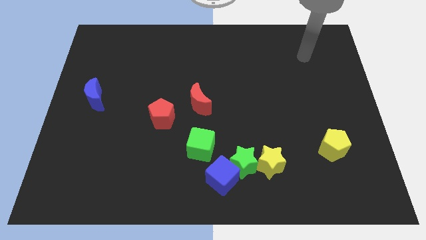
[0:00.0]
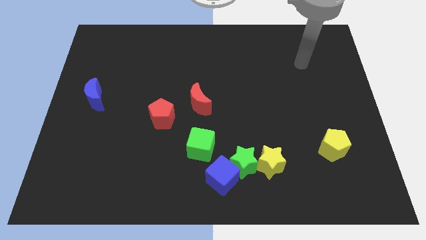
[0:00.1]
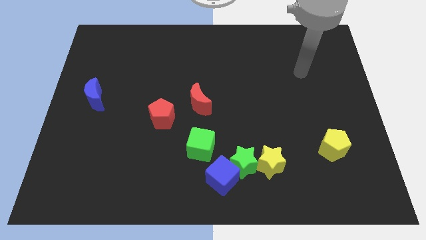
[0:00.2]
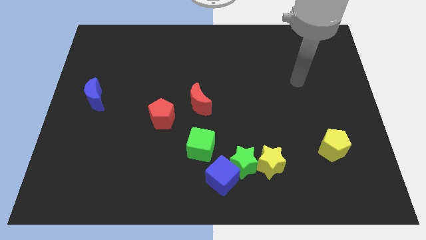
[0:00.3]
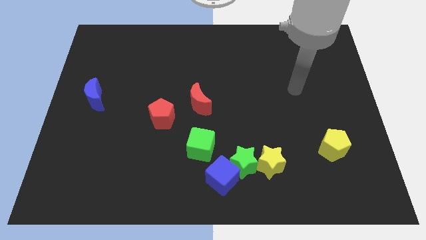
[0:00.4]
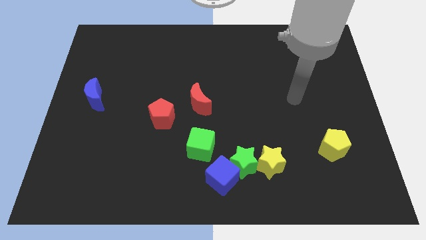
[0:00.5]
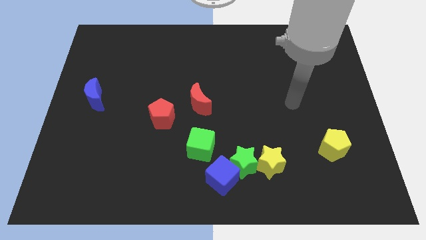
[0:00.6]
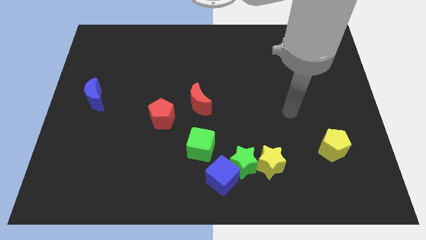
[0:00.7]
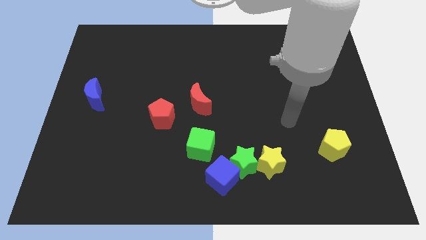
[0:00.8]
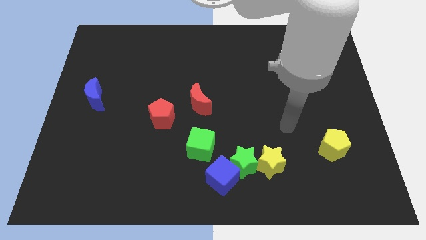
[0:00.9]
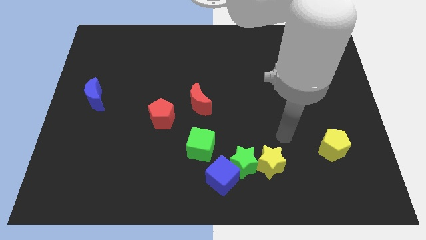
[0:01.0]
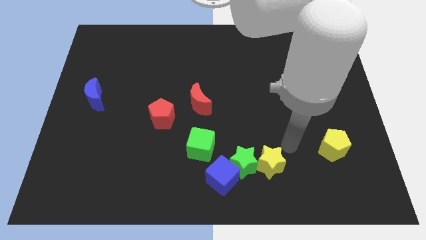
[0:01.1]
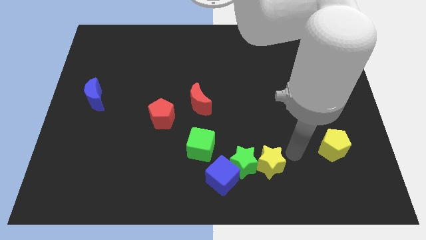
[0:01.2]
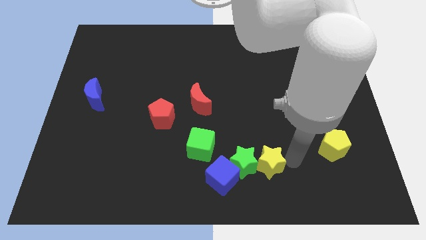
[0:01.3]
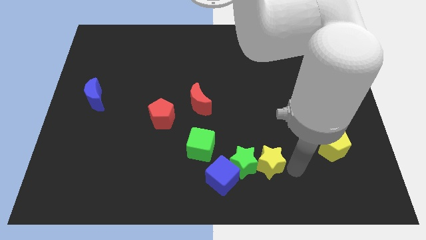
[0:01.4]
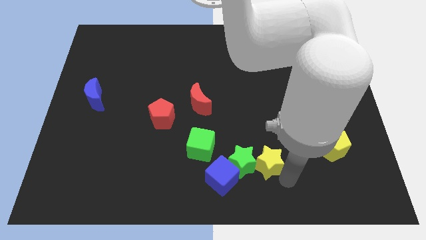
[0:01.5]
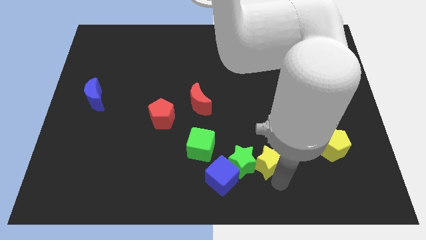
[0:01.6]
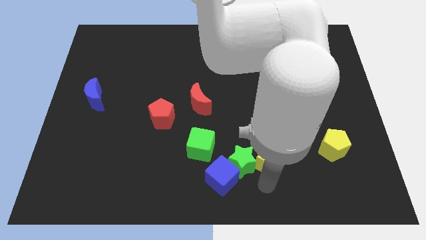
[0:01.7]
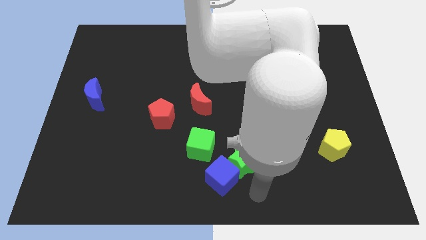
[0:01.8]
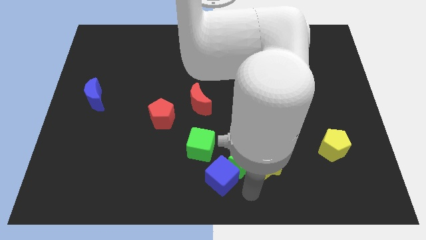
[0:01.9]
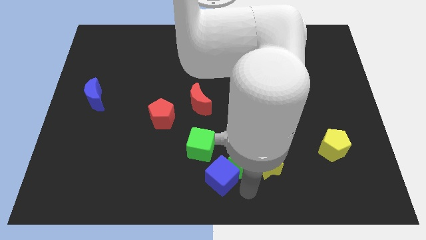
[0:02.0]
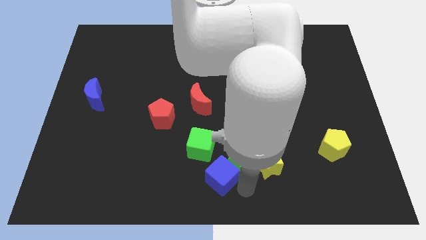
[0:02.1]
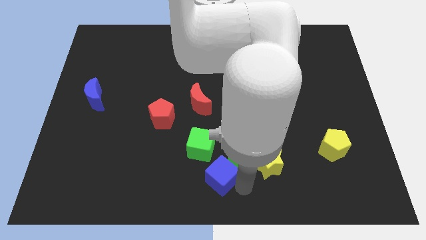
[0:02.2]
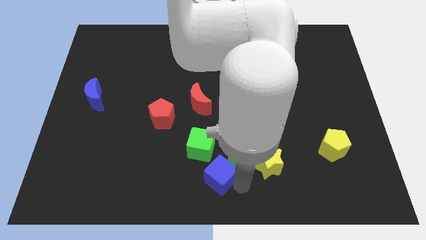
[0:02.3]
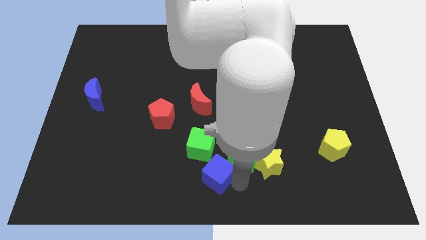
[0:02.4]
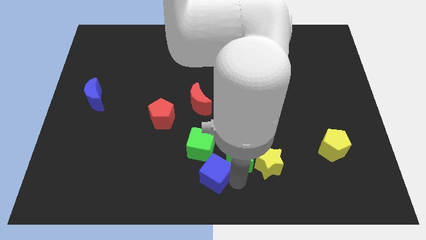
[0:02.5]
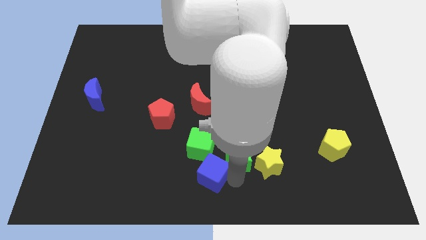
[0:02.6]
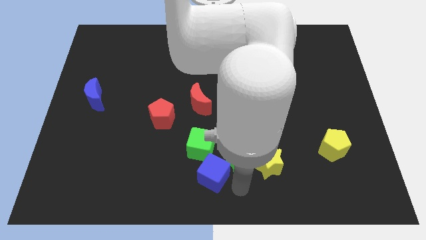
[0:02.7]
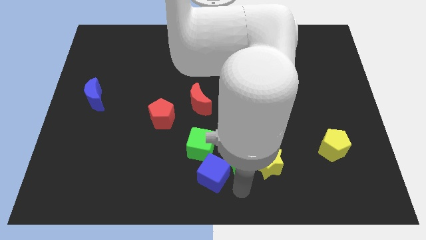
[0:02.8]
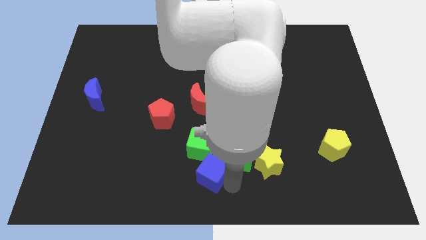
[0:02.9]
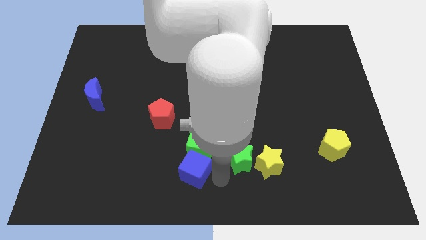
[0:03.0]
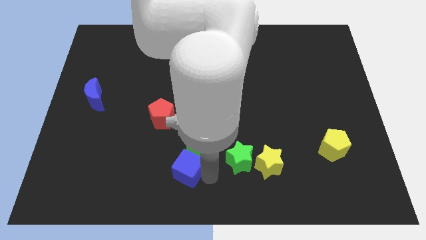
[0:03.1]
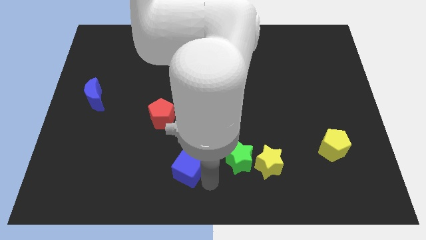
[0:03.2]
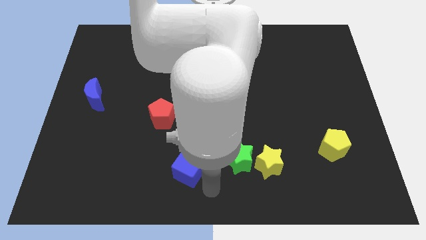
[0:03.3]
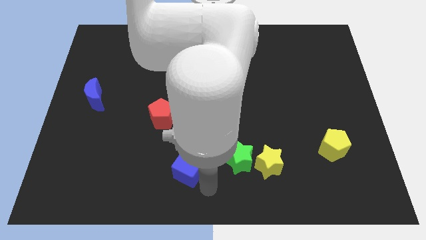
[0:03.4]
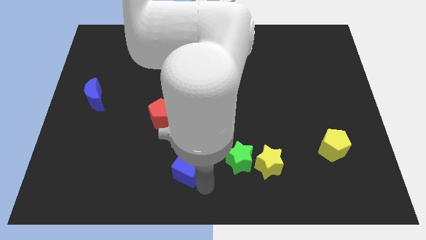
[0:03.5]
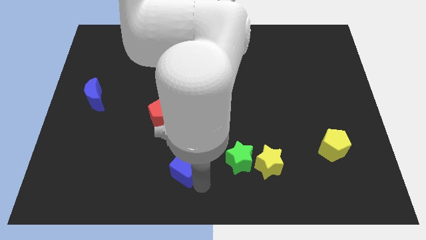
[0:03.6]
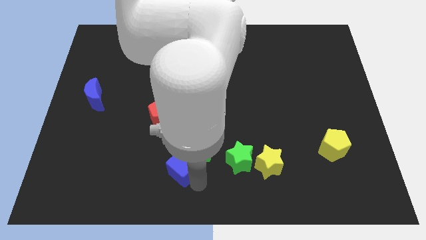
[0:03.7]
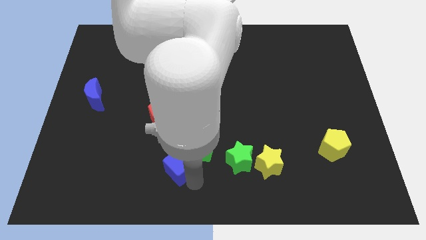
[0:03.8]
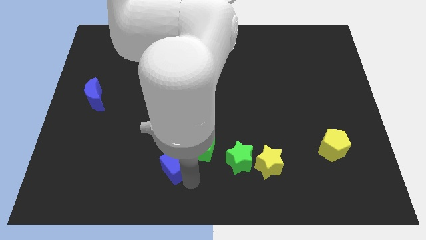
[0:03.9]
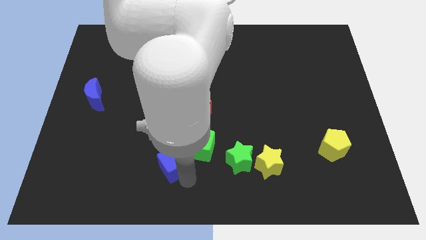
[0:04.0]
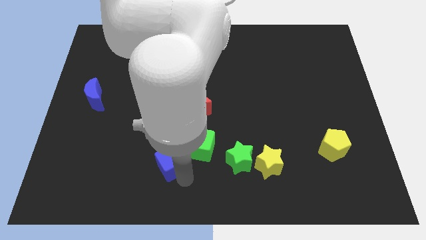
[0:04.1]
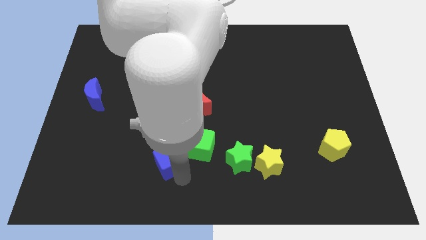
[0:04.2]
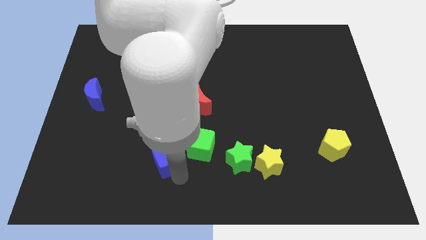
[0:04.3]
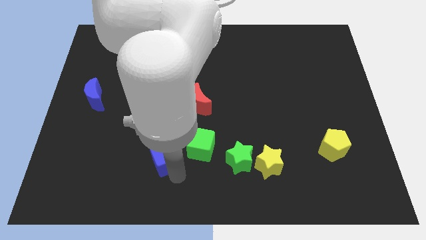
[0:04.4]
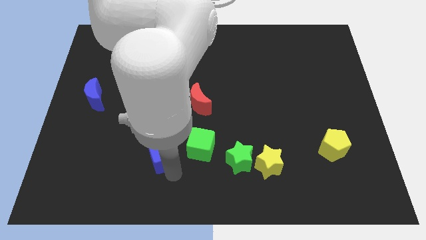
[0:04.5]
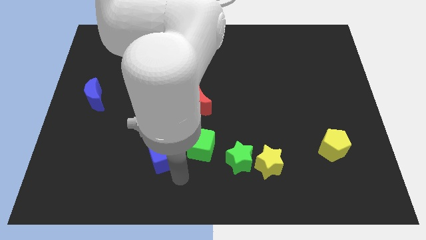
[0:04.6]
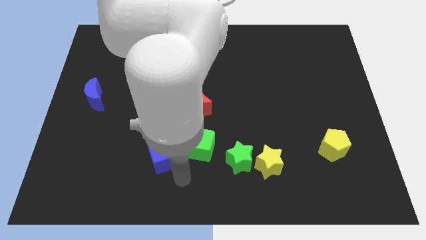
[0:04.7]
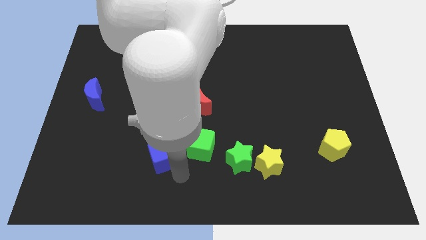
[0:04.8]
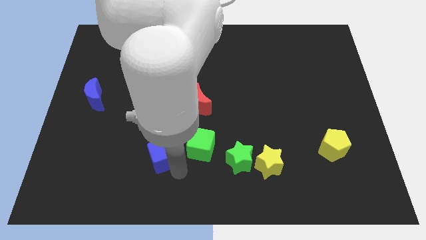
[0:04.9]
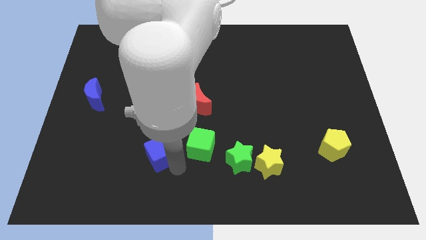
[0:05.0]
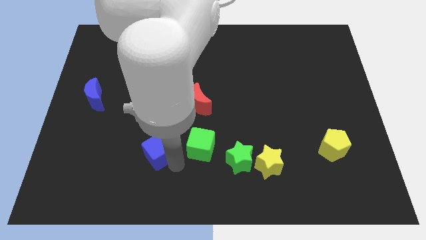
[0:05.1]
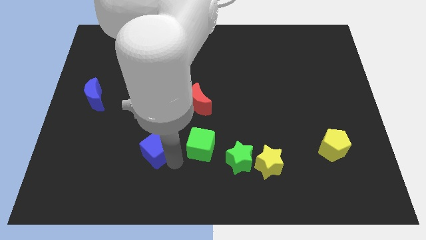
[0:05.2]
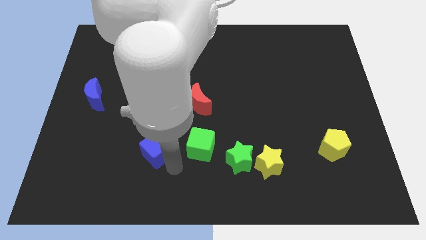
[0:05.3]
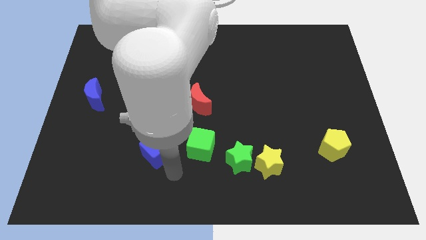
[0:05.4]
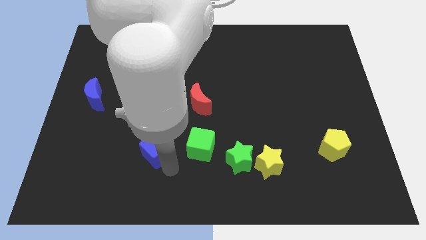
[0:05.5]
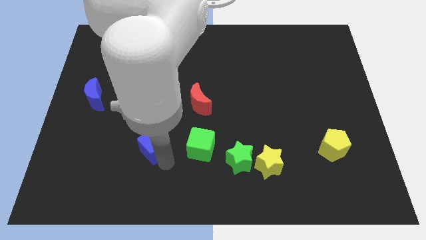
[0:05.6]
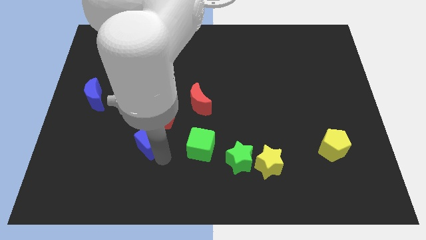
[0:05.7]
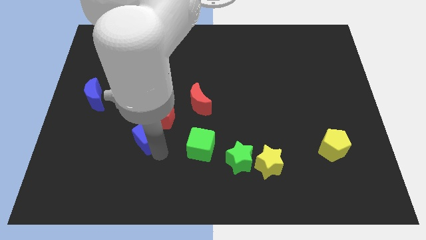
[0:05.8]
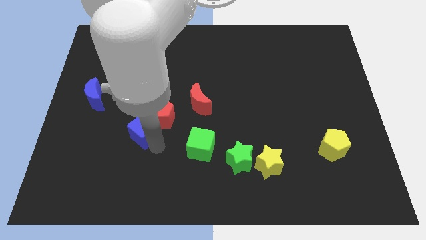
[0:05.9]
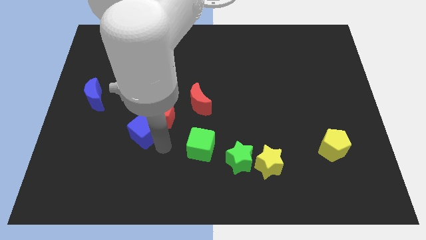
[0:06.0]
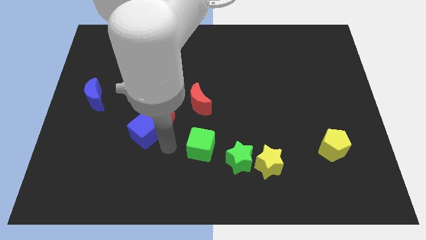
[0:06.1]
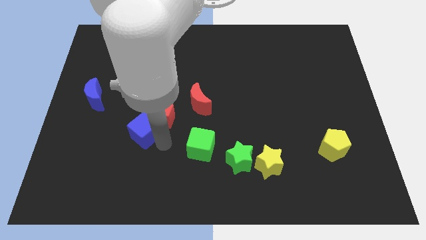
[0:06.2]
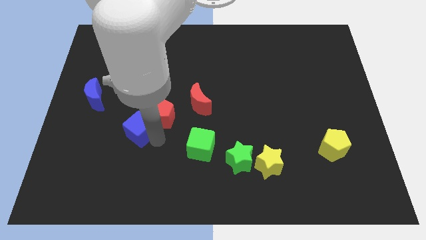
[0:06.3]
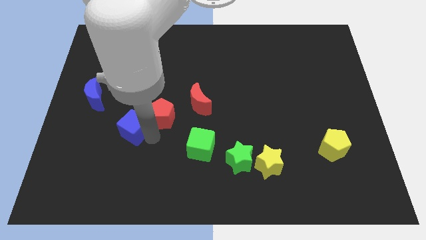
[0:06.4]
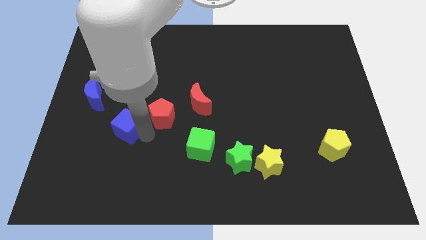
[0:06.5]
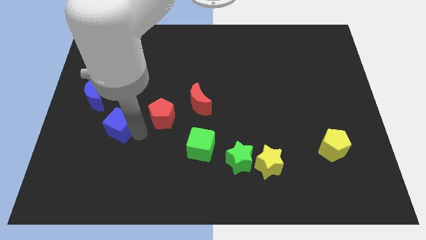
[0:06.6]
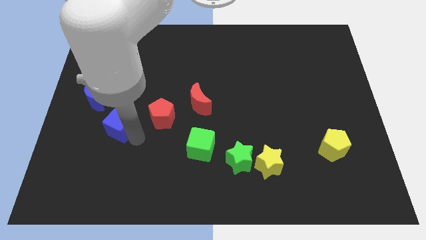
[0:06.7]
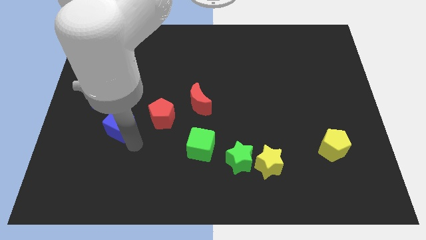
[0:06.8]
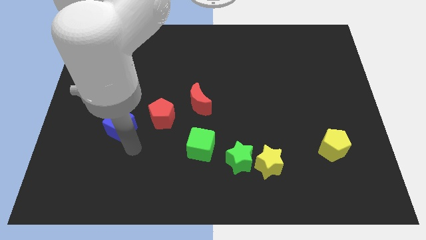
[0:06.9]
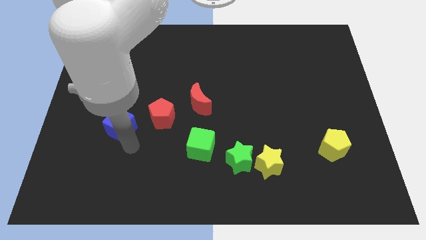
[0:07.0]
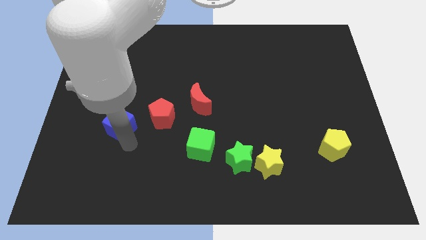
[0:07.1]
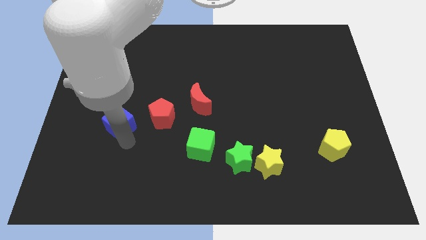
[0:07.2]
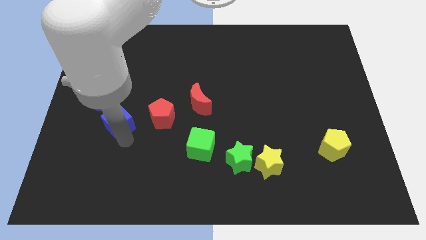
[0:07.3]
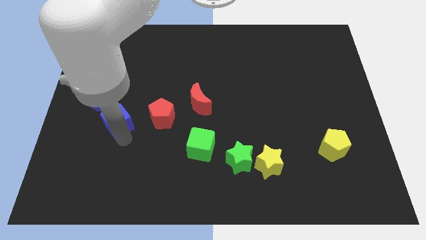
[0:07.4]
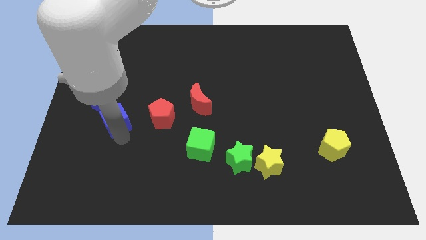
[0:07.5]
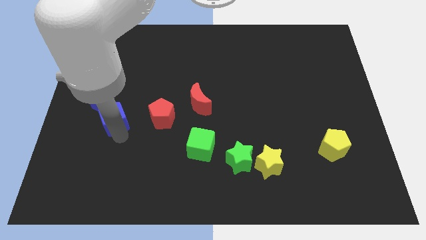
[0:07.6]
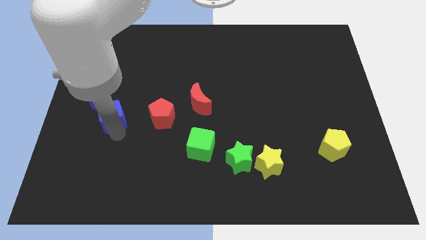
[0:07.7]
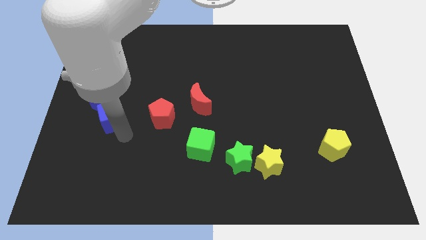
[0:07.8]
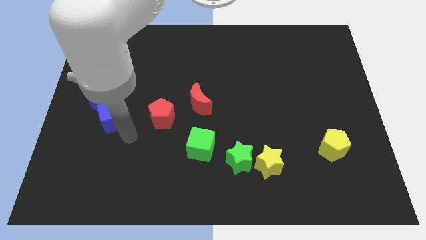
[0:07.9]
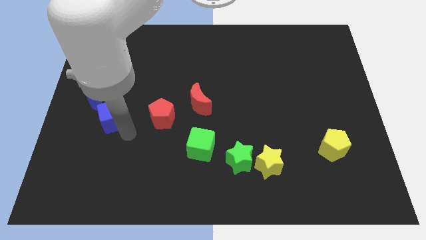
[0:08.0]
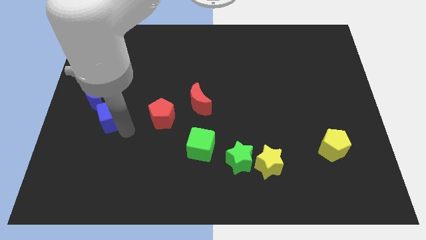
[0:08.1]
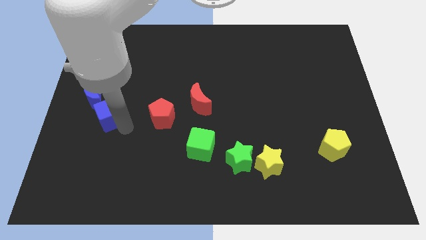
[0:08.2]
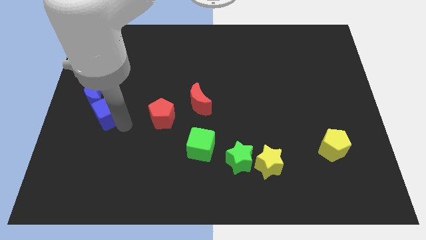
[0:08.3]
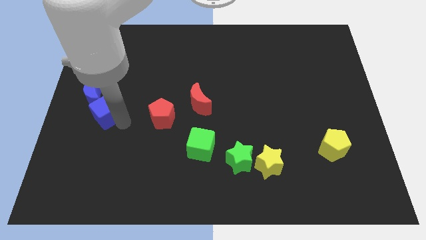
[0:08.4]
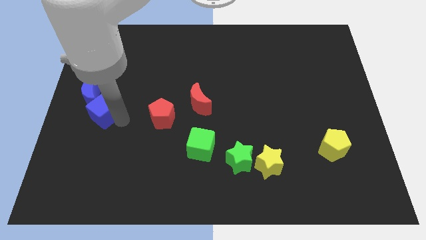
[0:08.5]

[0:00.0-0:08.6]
slide the blue cube close to the blue moon
